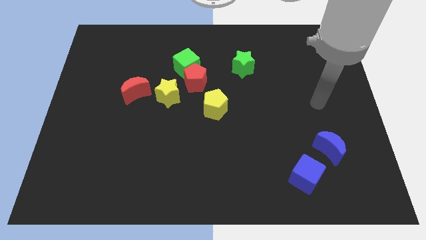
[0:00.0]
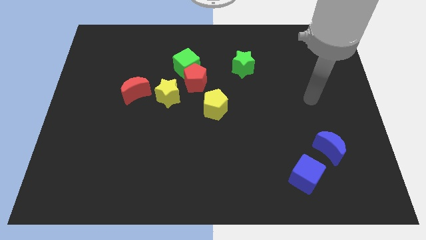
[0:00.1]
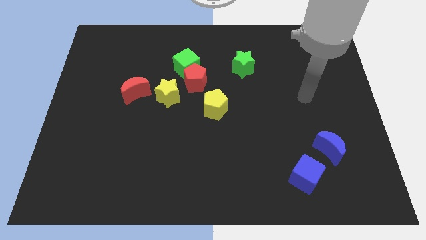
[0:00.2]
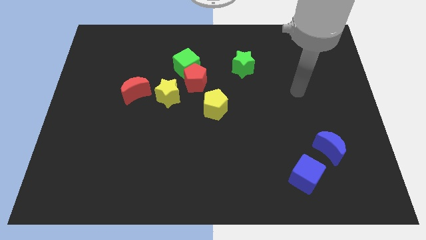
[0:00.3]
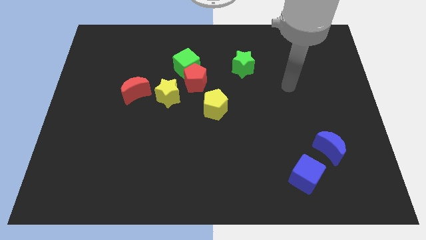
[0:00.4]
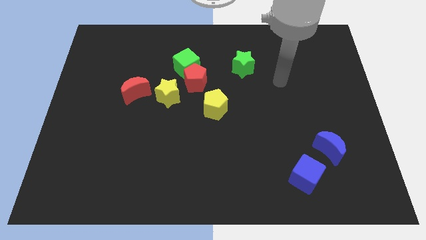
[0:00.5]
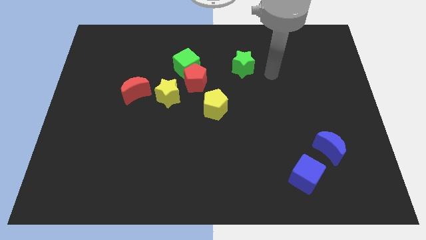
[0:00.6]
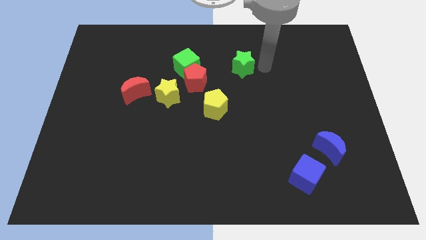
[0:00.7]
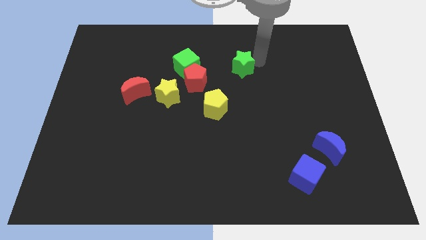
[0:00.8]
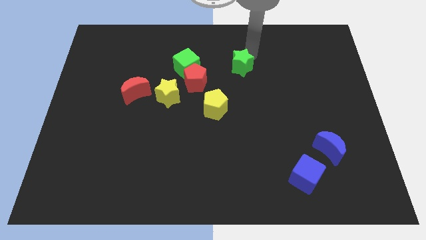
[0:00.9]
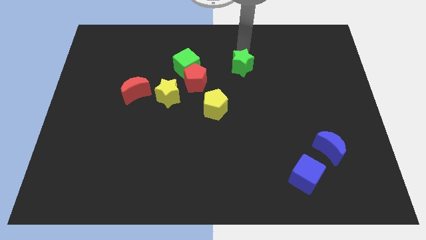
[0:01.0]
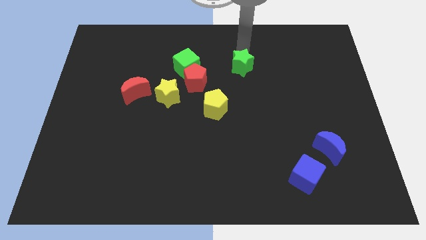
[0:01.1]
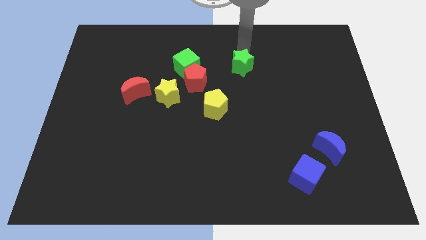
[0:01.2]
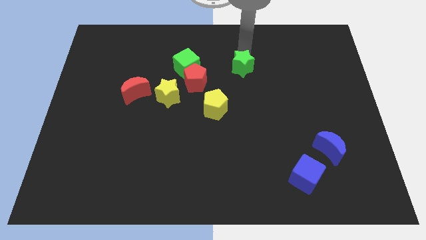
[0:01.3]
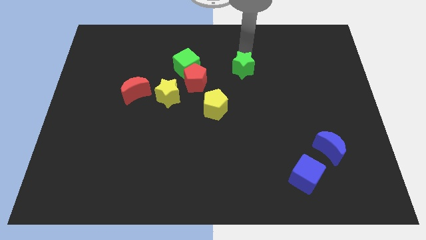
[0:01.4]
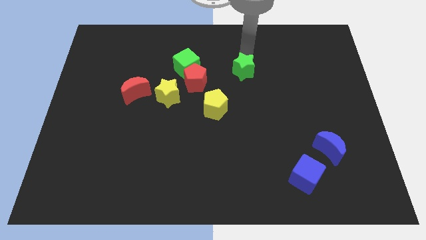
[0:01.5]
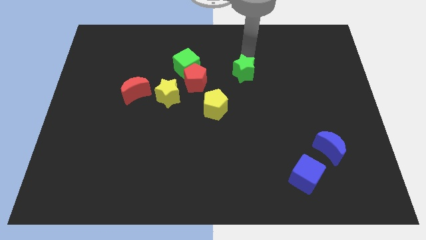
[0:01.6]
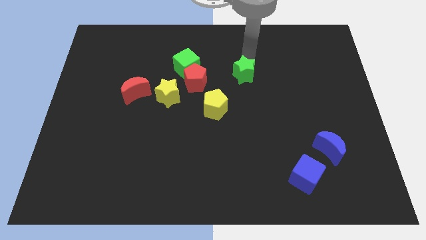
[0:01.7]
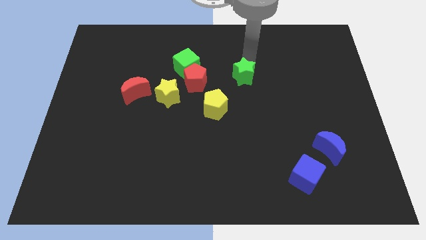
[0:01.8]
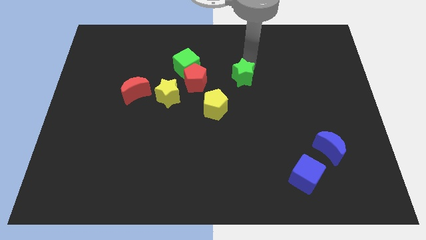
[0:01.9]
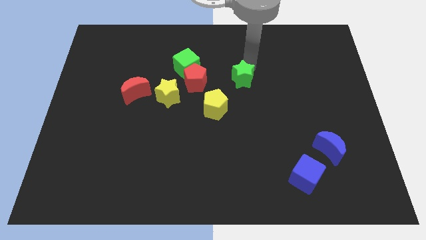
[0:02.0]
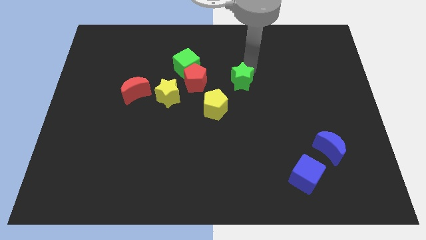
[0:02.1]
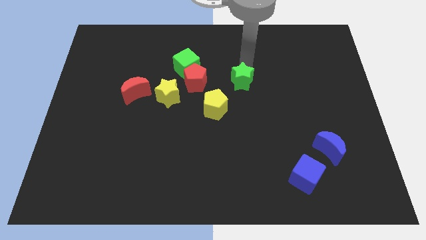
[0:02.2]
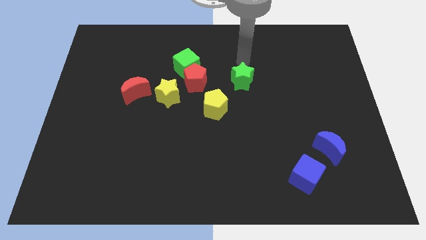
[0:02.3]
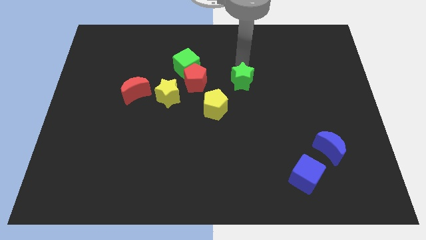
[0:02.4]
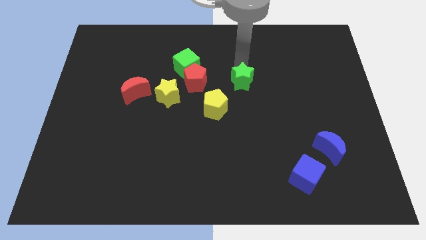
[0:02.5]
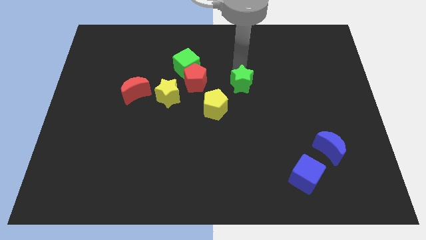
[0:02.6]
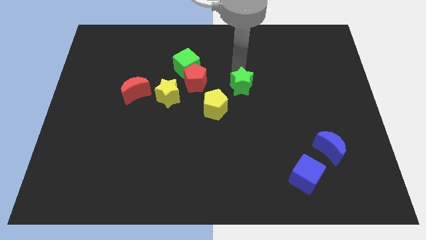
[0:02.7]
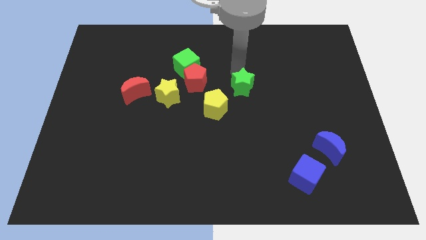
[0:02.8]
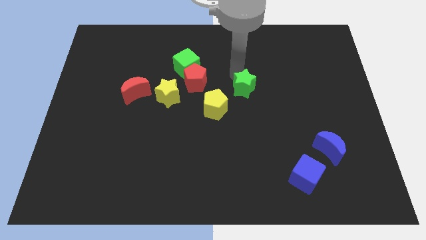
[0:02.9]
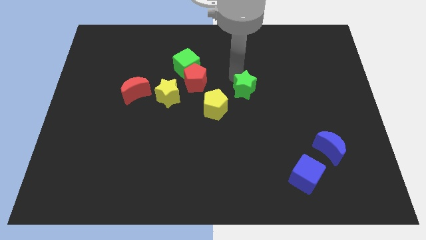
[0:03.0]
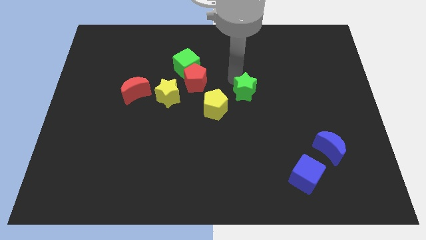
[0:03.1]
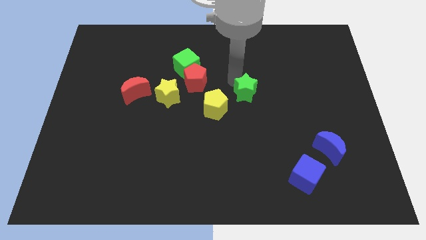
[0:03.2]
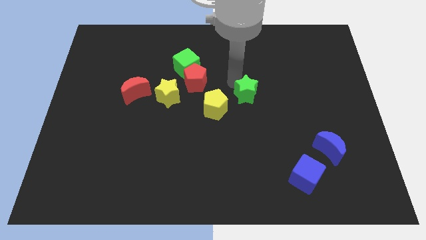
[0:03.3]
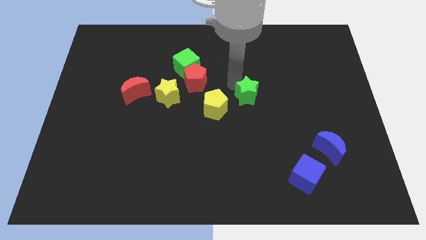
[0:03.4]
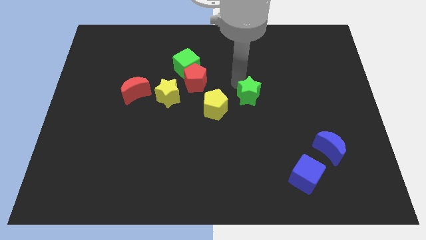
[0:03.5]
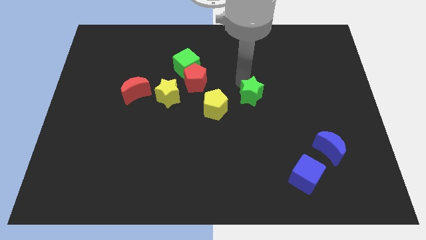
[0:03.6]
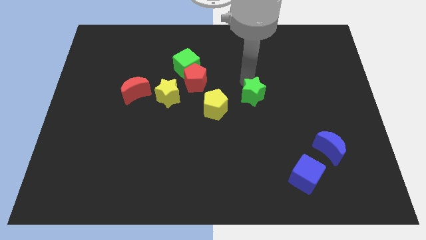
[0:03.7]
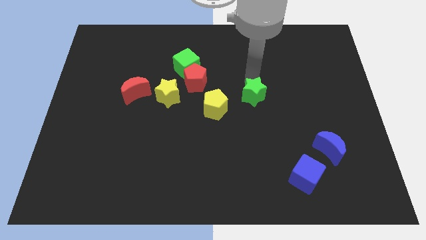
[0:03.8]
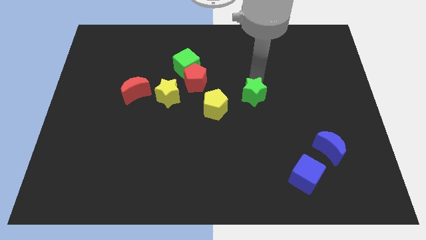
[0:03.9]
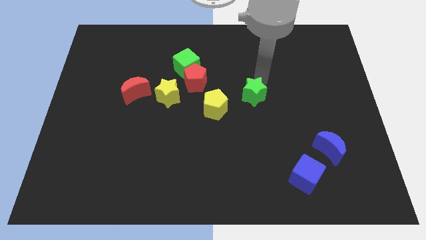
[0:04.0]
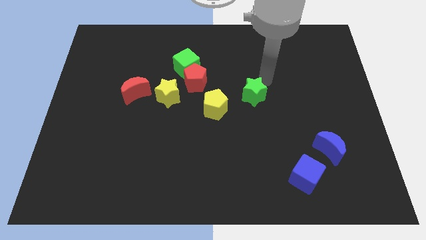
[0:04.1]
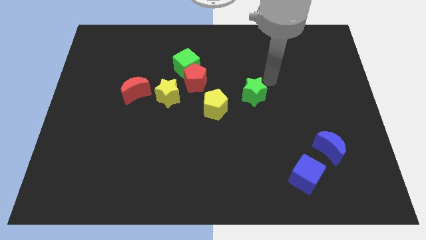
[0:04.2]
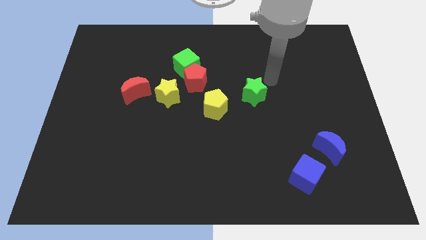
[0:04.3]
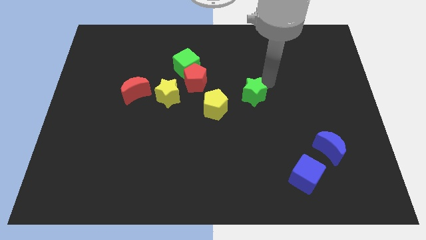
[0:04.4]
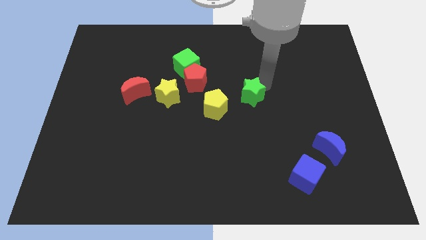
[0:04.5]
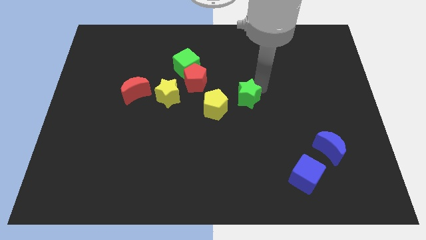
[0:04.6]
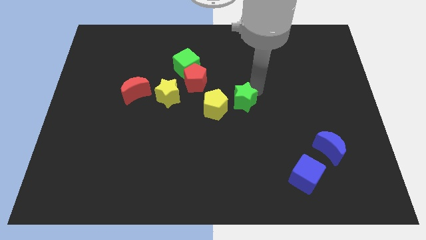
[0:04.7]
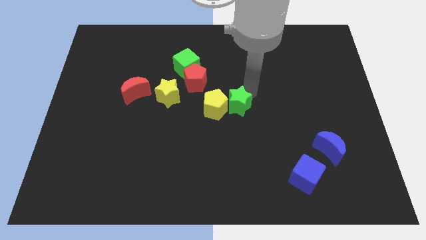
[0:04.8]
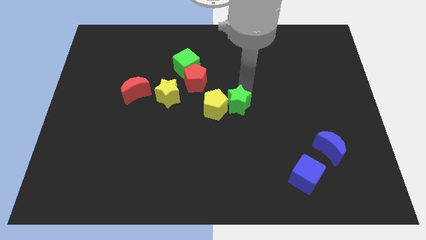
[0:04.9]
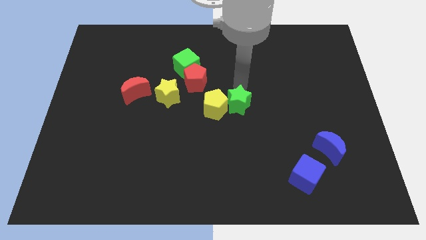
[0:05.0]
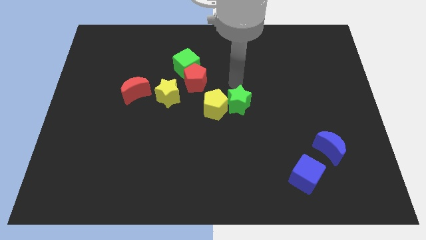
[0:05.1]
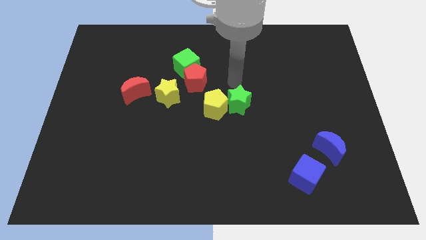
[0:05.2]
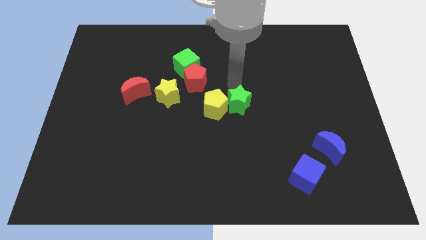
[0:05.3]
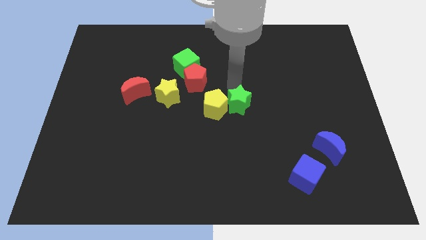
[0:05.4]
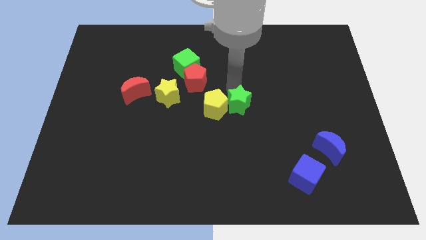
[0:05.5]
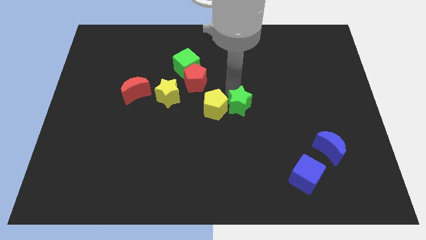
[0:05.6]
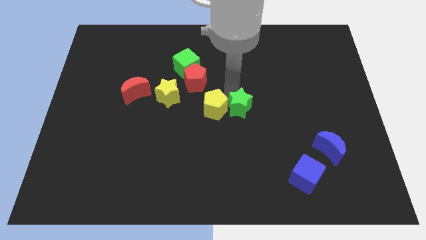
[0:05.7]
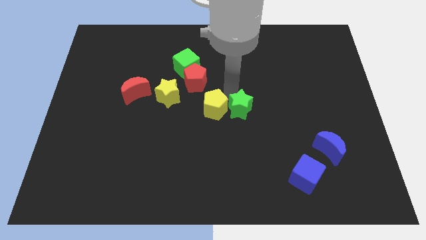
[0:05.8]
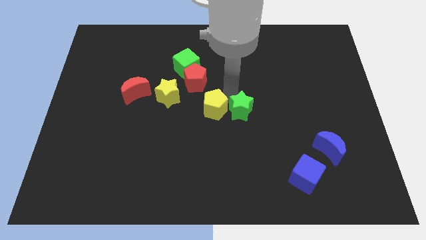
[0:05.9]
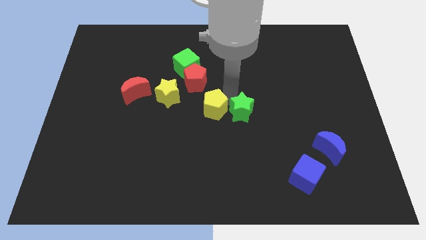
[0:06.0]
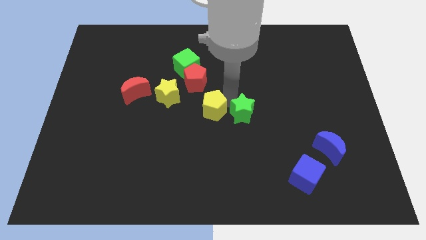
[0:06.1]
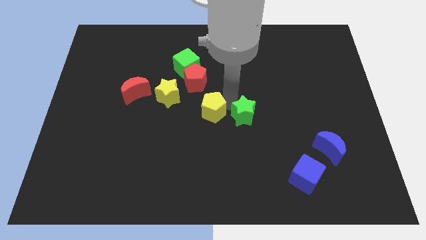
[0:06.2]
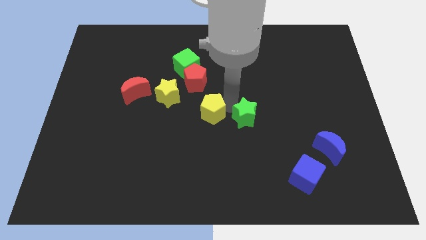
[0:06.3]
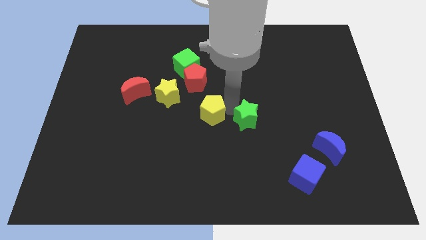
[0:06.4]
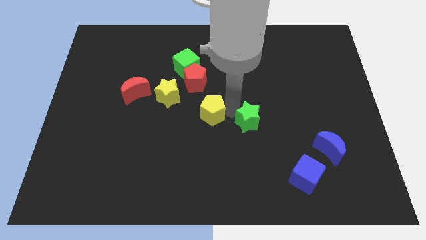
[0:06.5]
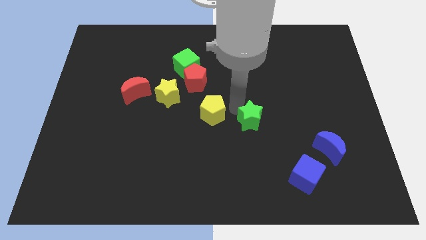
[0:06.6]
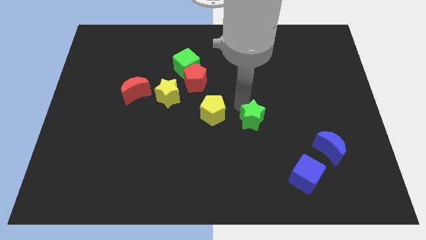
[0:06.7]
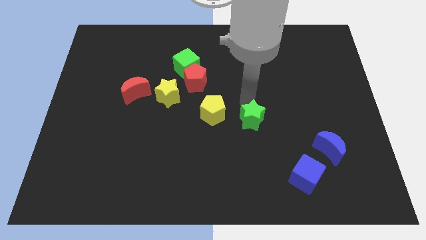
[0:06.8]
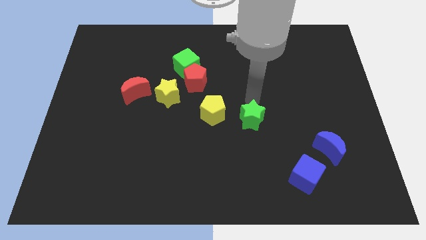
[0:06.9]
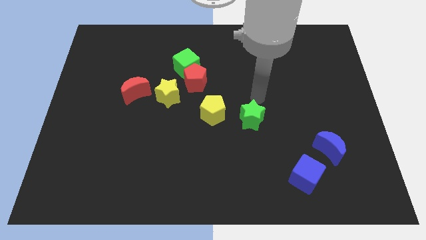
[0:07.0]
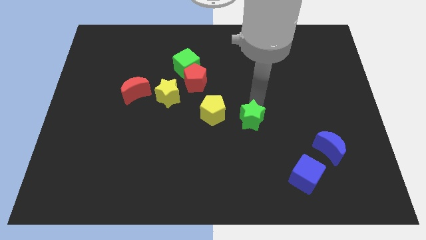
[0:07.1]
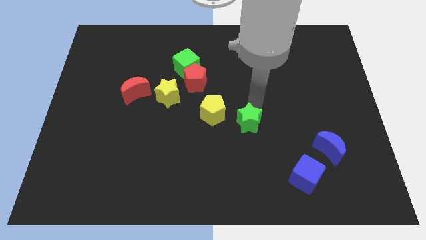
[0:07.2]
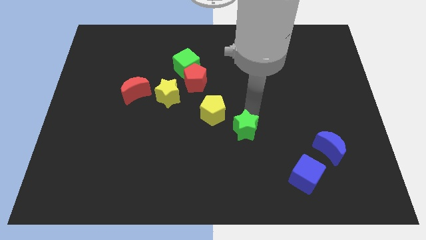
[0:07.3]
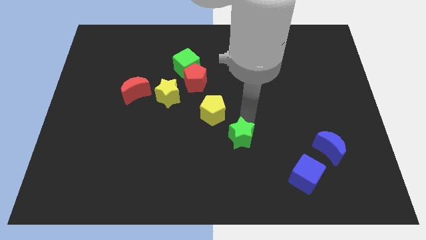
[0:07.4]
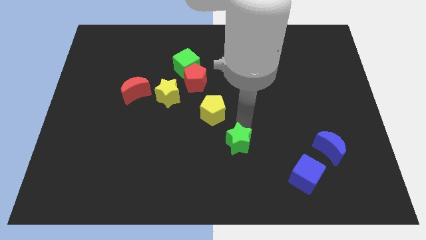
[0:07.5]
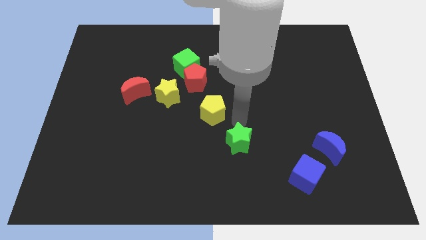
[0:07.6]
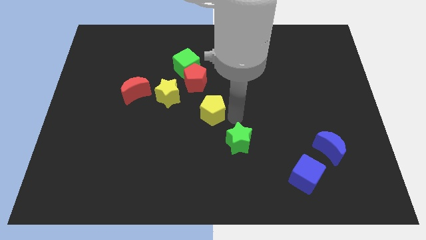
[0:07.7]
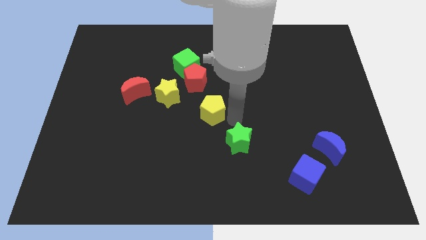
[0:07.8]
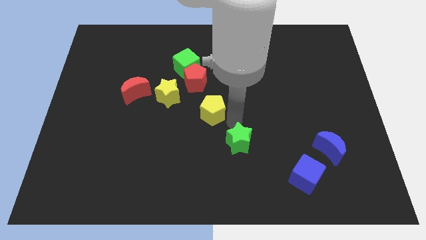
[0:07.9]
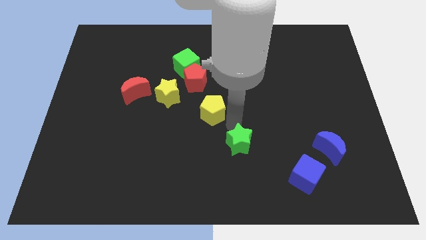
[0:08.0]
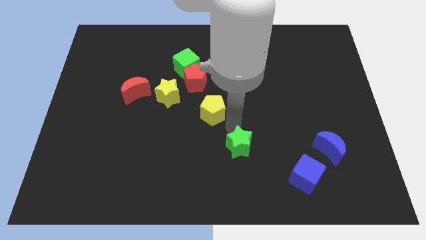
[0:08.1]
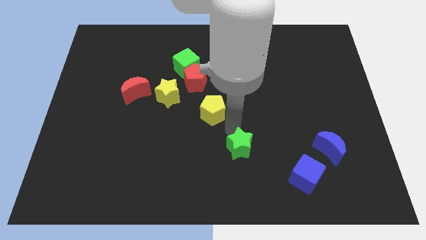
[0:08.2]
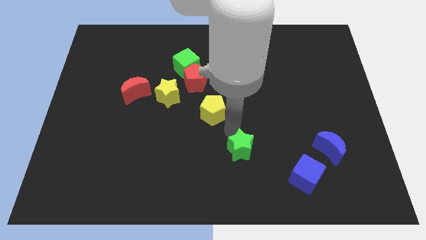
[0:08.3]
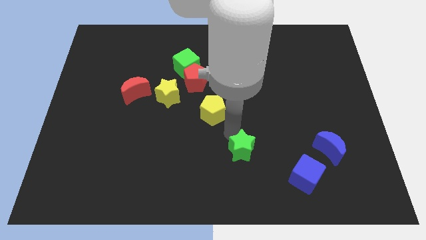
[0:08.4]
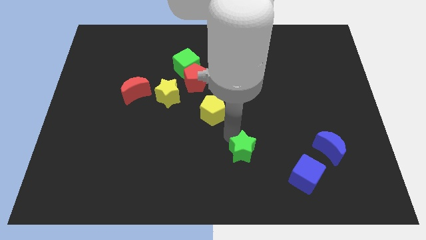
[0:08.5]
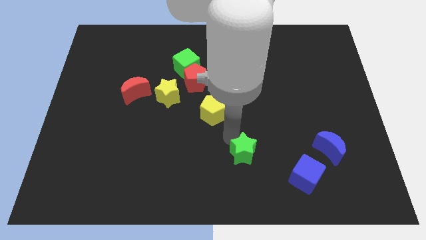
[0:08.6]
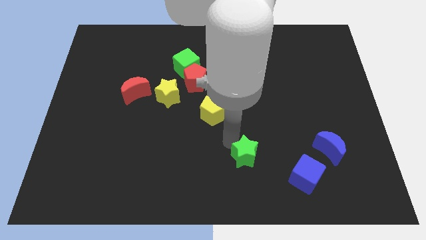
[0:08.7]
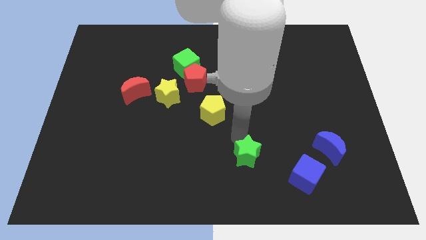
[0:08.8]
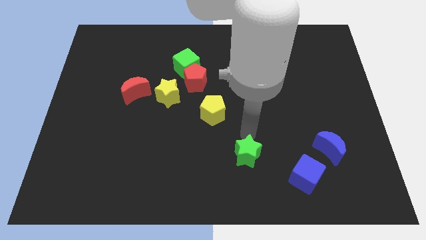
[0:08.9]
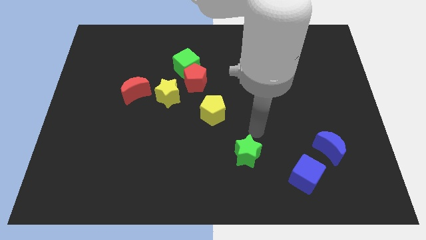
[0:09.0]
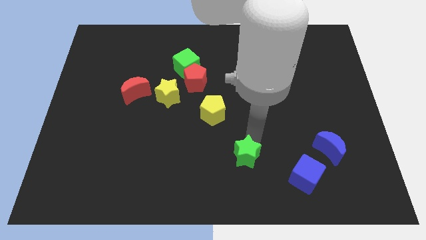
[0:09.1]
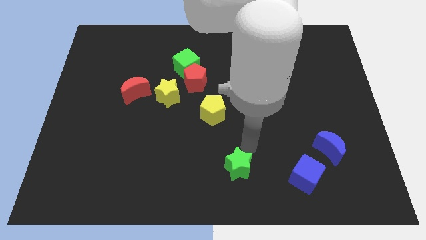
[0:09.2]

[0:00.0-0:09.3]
put the green star to the bottom side
